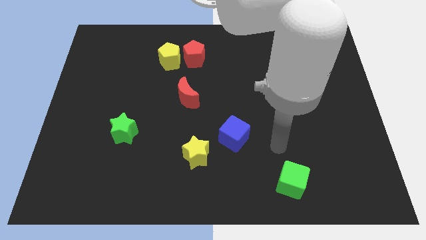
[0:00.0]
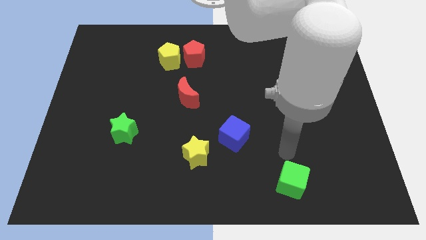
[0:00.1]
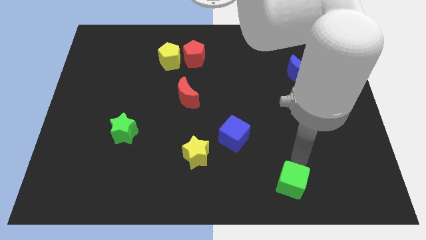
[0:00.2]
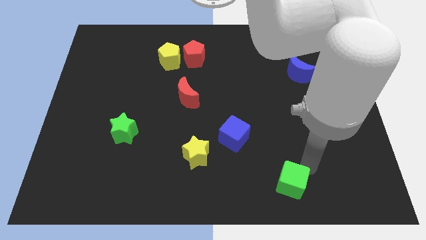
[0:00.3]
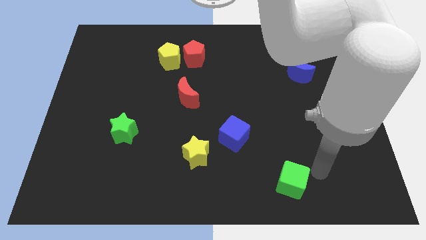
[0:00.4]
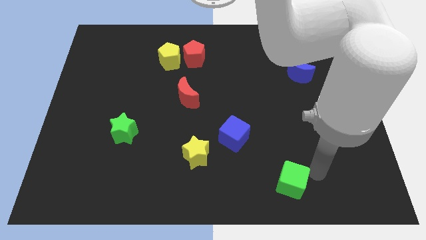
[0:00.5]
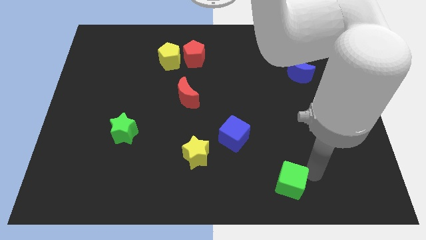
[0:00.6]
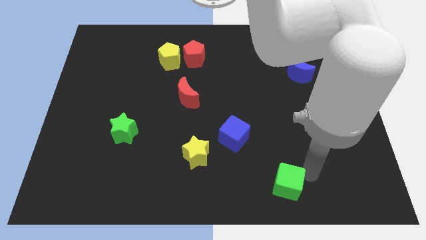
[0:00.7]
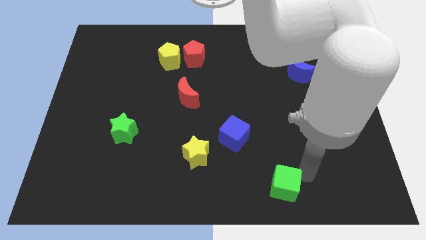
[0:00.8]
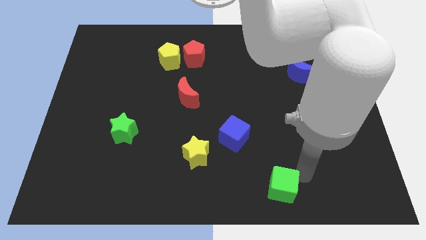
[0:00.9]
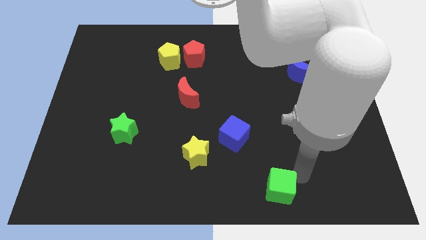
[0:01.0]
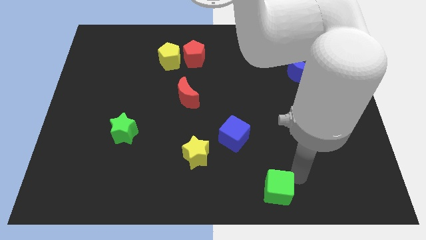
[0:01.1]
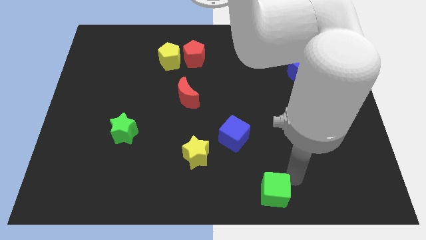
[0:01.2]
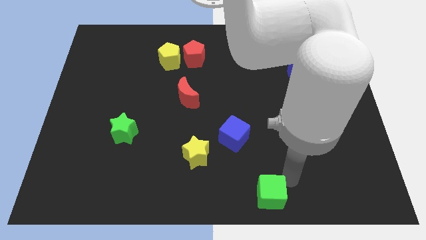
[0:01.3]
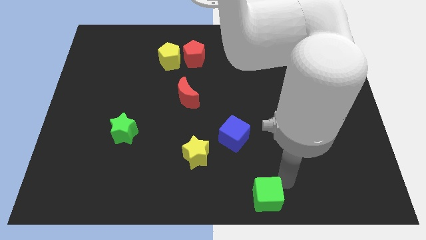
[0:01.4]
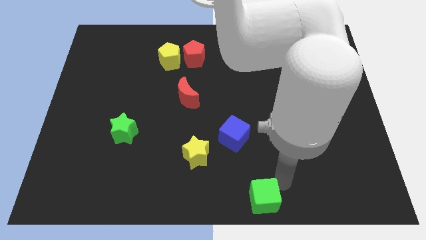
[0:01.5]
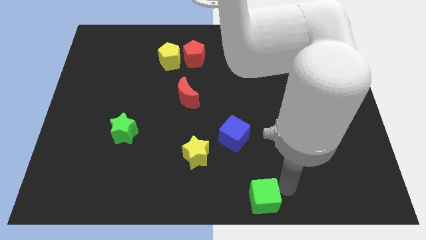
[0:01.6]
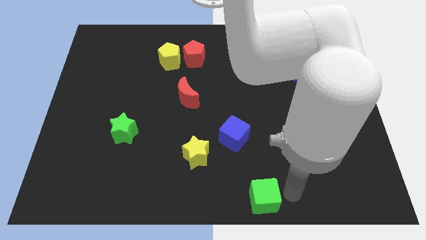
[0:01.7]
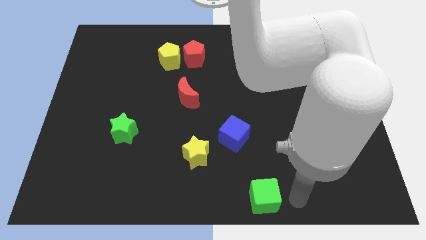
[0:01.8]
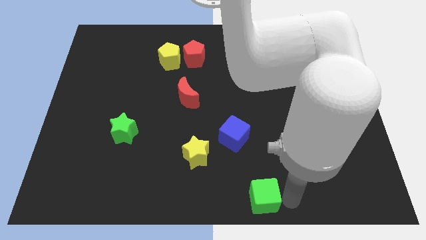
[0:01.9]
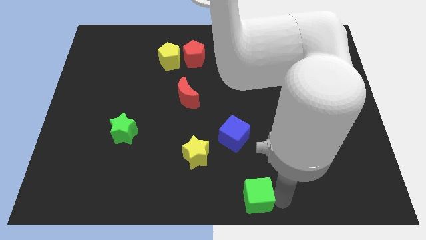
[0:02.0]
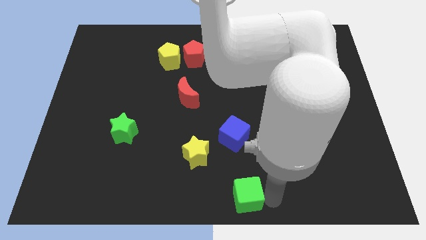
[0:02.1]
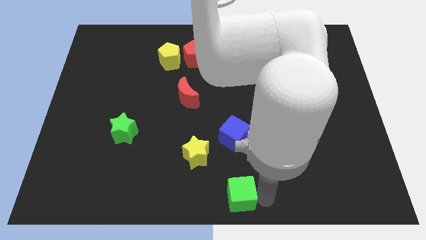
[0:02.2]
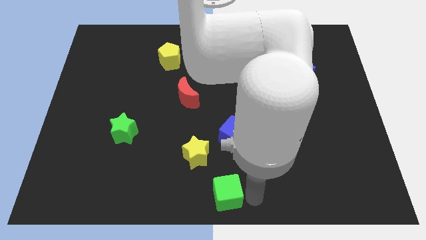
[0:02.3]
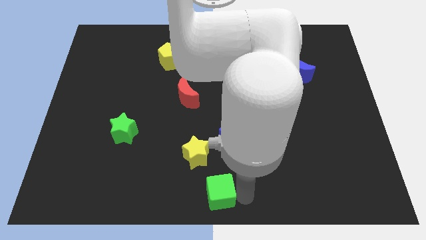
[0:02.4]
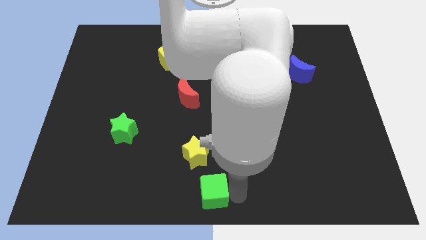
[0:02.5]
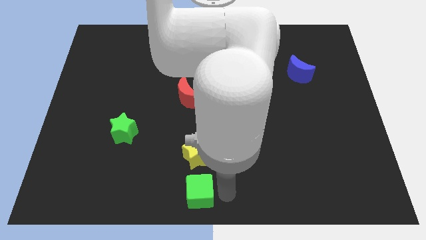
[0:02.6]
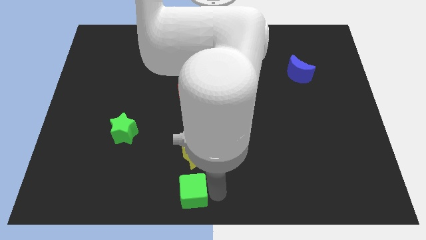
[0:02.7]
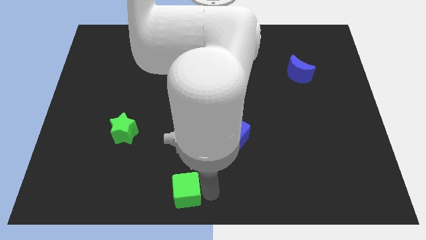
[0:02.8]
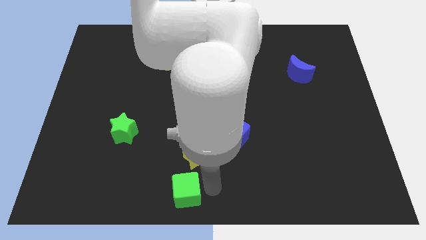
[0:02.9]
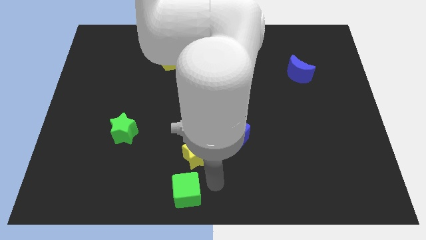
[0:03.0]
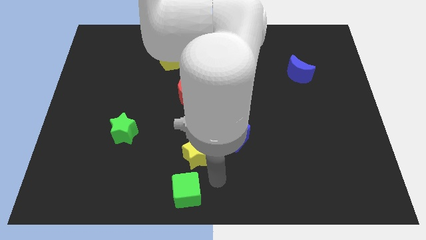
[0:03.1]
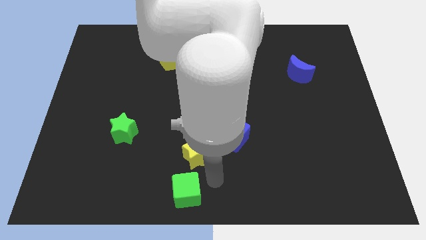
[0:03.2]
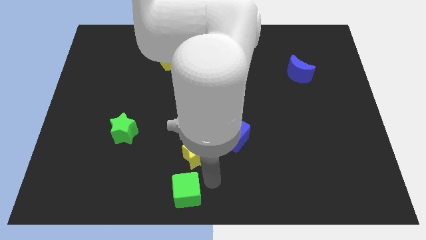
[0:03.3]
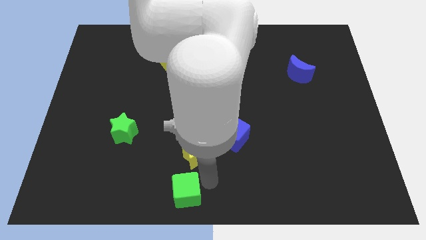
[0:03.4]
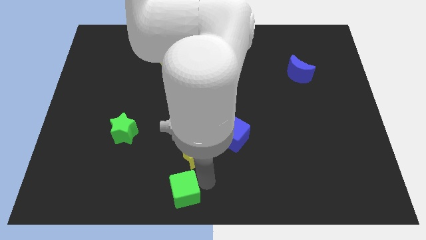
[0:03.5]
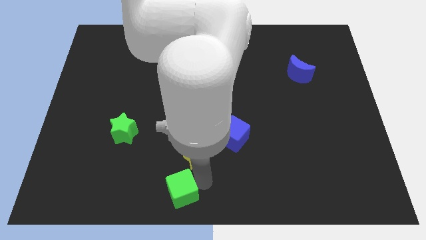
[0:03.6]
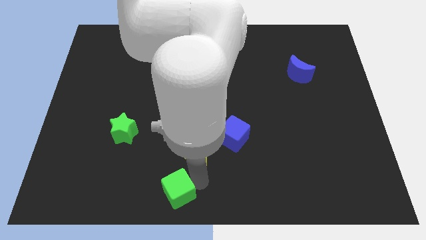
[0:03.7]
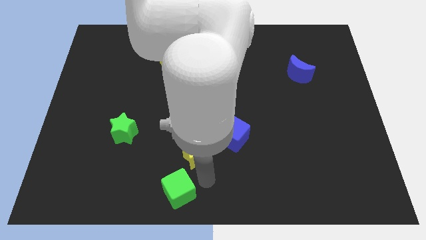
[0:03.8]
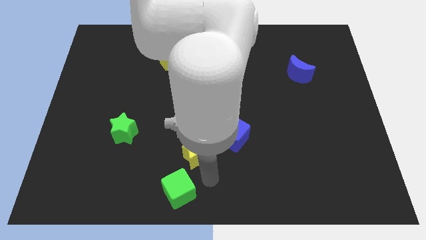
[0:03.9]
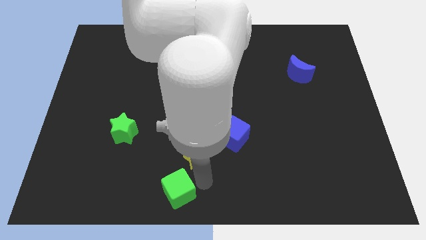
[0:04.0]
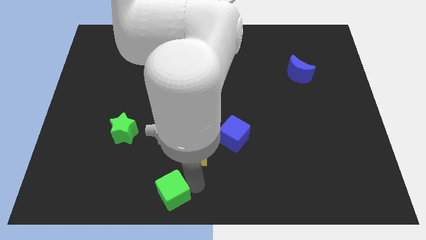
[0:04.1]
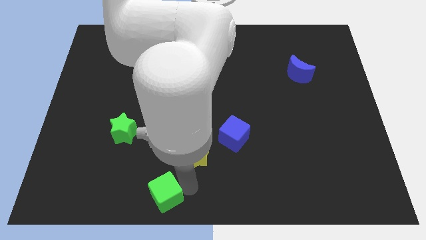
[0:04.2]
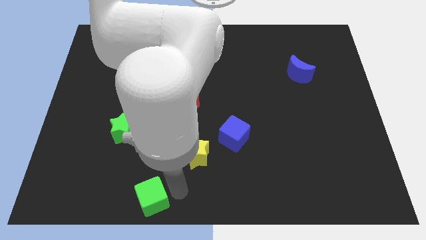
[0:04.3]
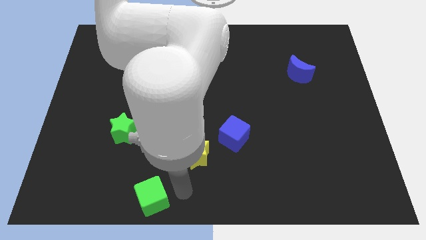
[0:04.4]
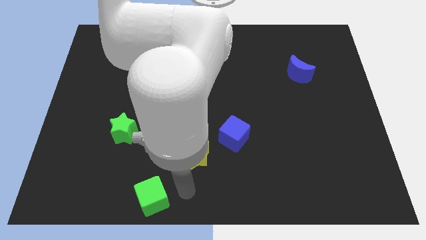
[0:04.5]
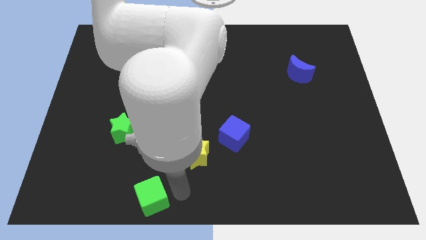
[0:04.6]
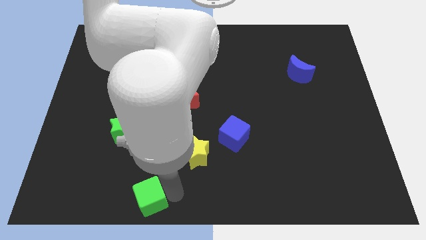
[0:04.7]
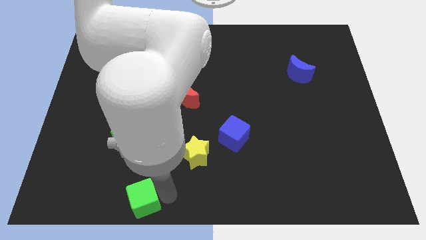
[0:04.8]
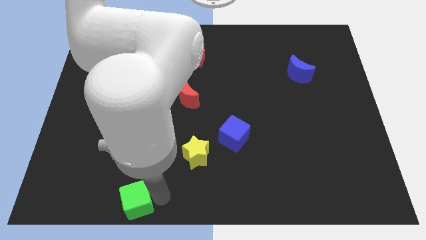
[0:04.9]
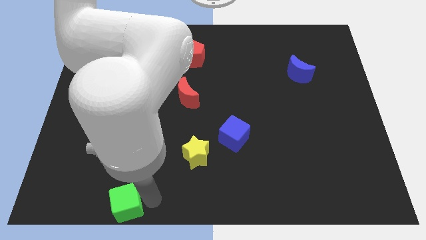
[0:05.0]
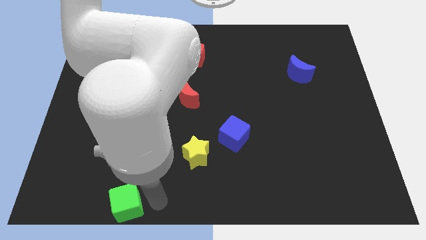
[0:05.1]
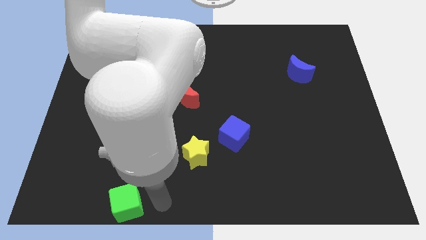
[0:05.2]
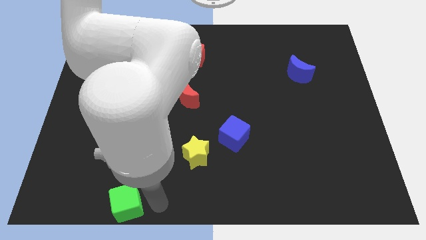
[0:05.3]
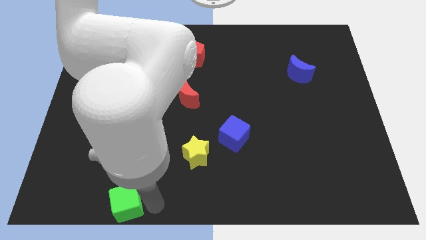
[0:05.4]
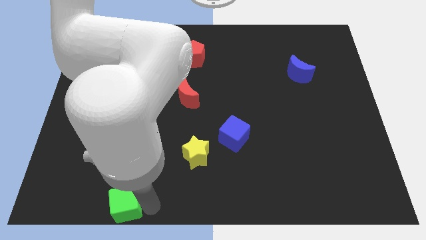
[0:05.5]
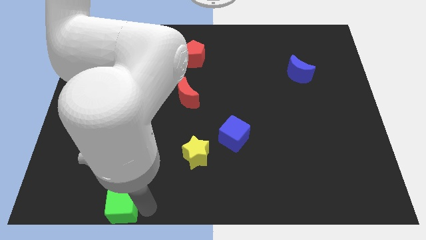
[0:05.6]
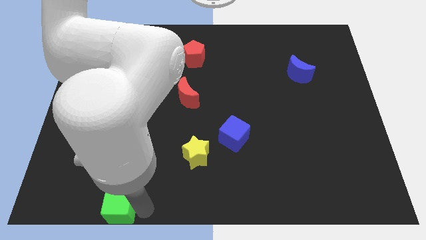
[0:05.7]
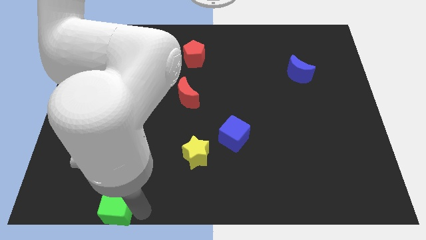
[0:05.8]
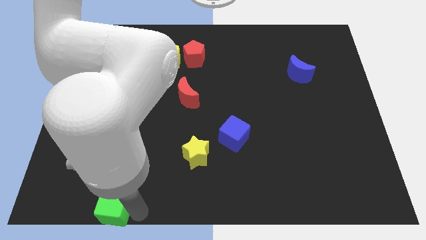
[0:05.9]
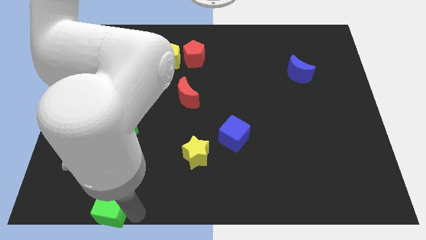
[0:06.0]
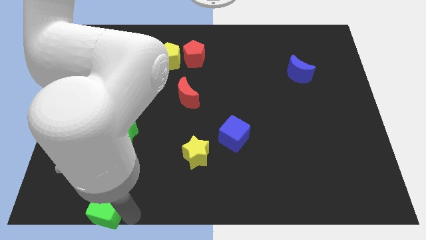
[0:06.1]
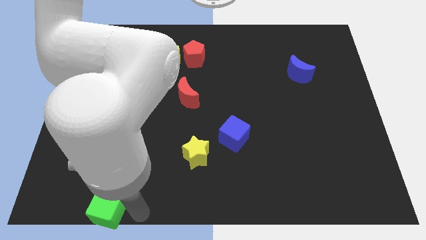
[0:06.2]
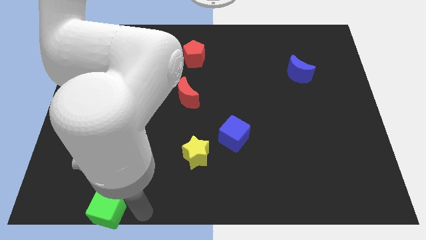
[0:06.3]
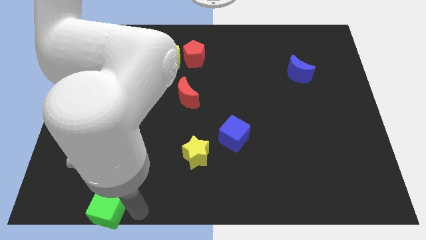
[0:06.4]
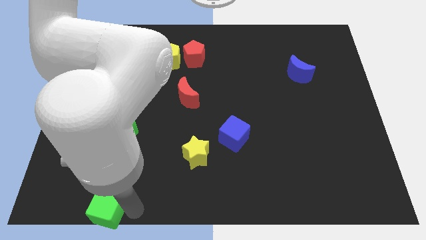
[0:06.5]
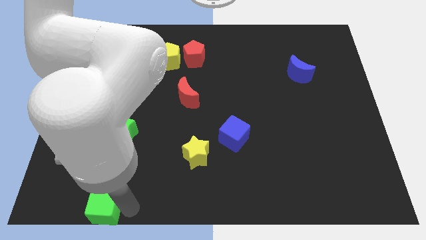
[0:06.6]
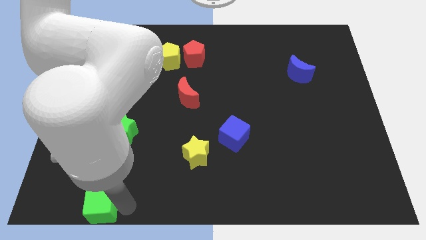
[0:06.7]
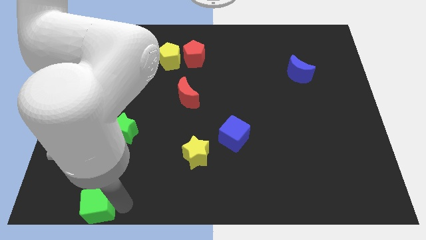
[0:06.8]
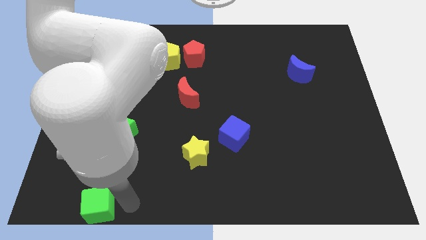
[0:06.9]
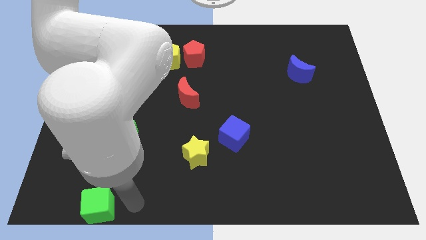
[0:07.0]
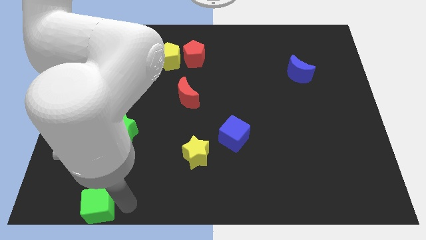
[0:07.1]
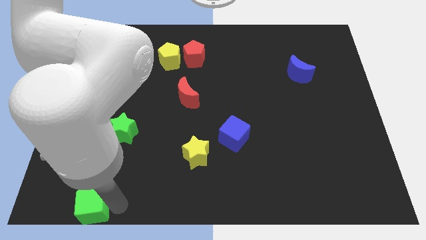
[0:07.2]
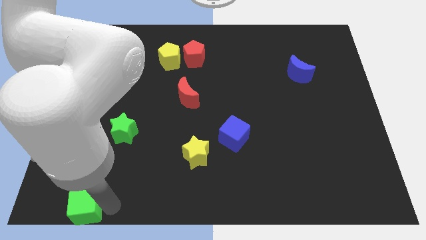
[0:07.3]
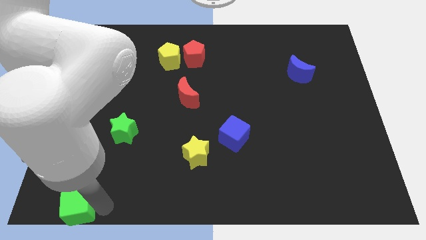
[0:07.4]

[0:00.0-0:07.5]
slide the green cube to the lower left corner
